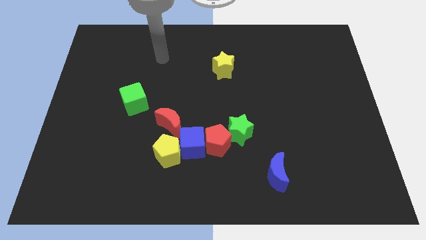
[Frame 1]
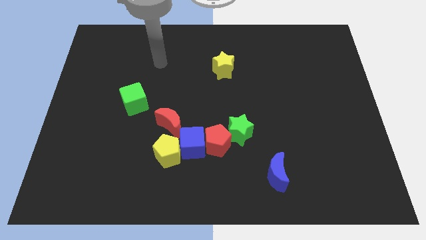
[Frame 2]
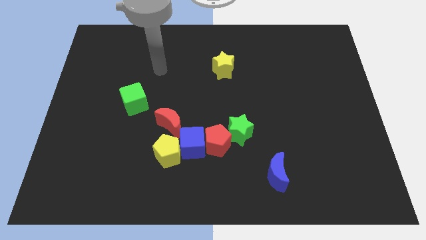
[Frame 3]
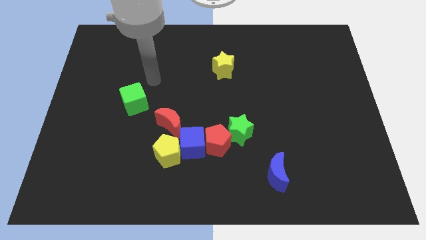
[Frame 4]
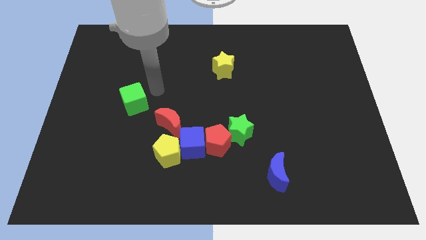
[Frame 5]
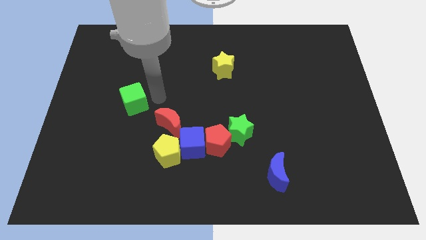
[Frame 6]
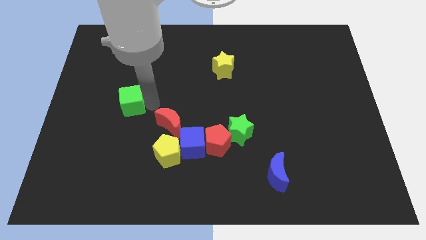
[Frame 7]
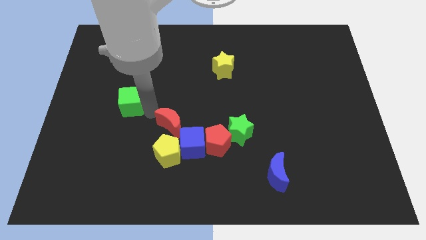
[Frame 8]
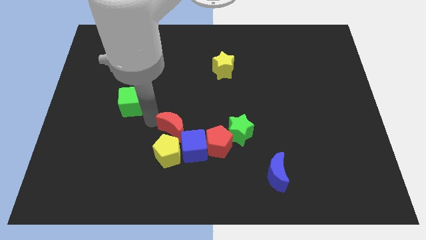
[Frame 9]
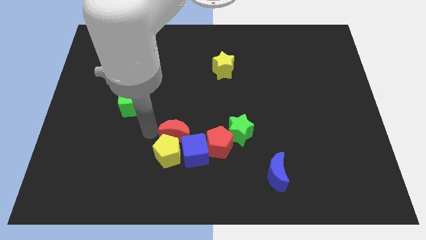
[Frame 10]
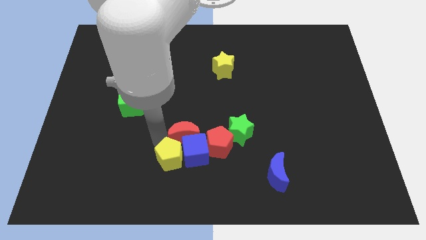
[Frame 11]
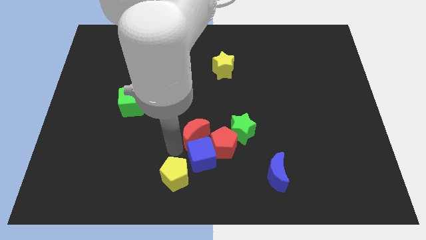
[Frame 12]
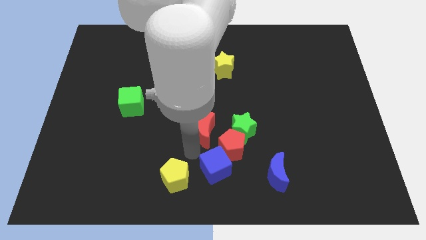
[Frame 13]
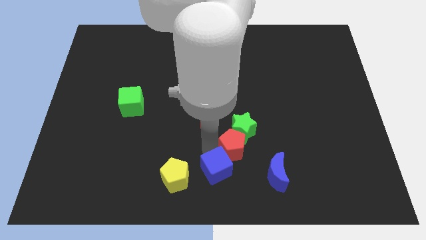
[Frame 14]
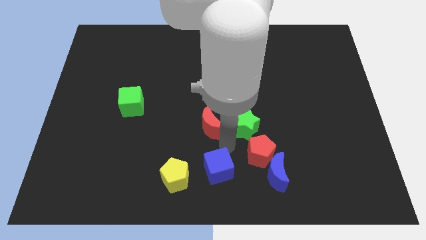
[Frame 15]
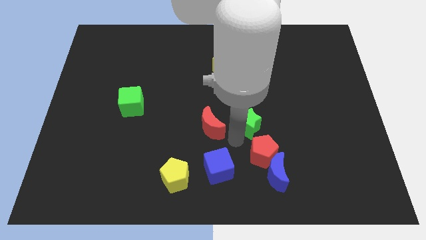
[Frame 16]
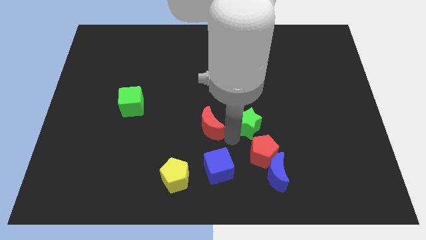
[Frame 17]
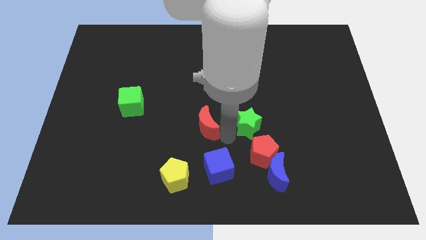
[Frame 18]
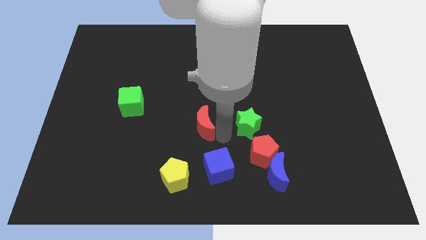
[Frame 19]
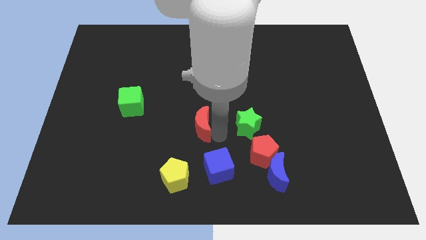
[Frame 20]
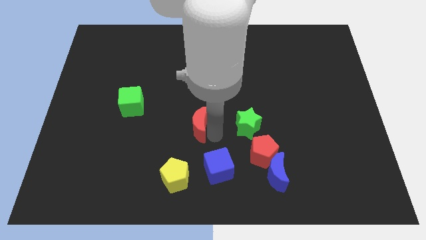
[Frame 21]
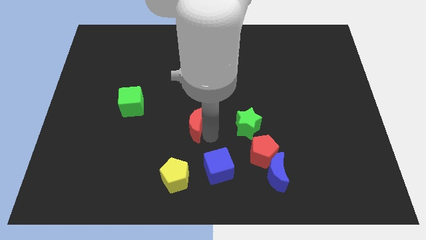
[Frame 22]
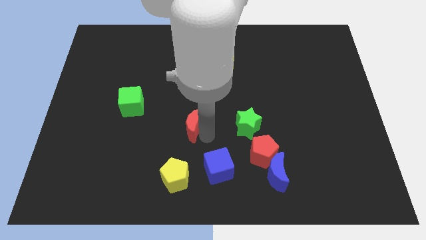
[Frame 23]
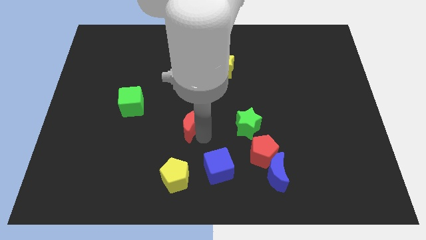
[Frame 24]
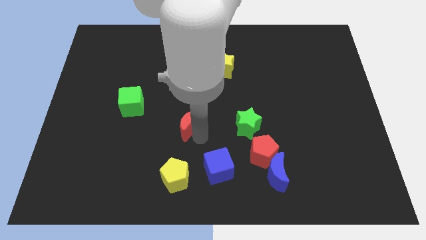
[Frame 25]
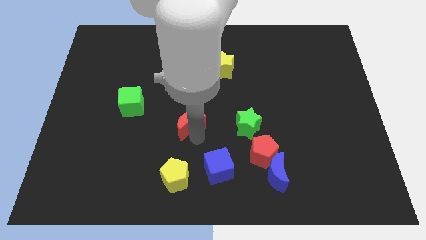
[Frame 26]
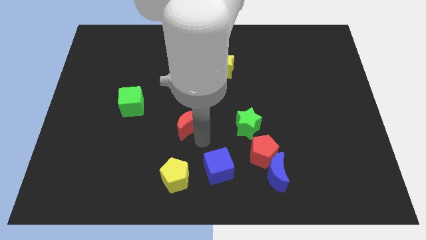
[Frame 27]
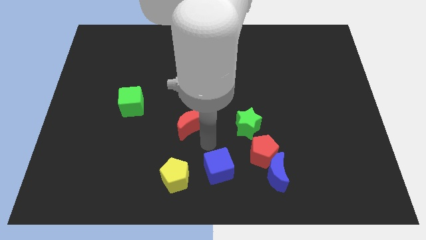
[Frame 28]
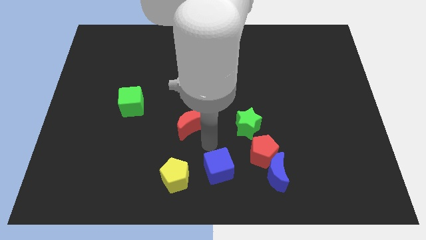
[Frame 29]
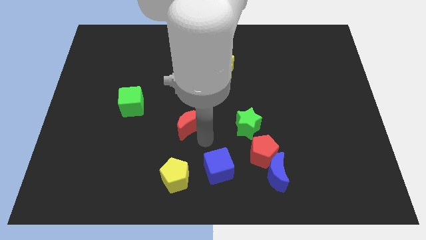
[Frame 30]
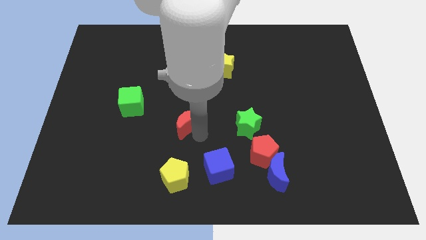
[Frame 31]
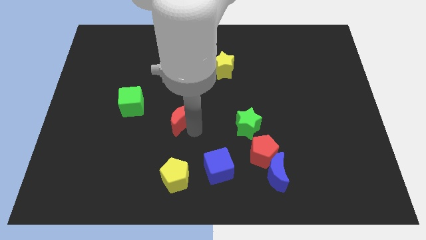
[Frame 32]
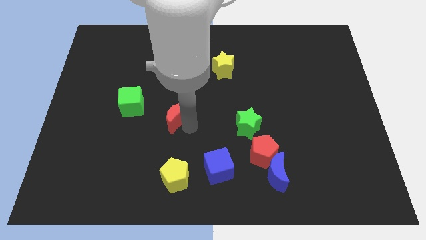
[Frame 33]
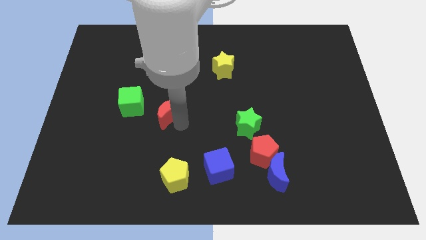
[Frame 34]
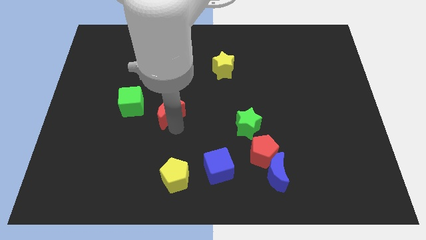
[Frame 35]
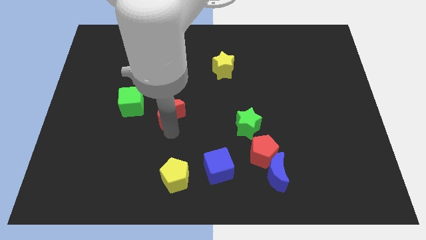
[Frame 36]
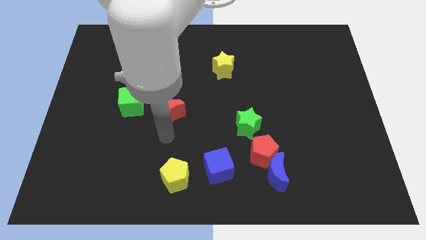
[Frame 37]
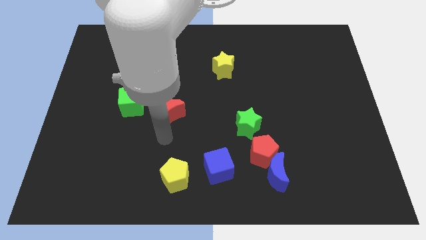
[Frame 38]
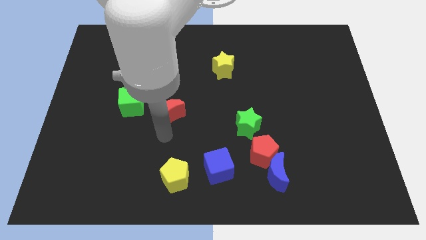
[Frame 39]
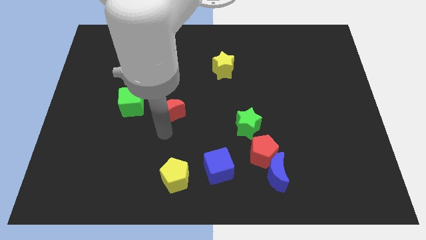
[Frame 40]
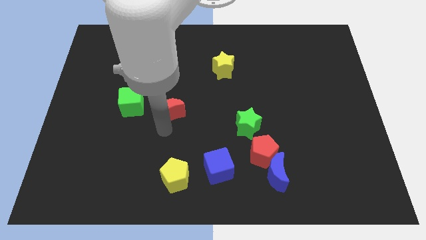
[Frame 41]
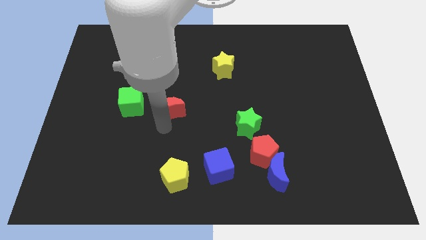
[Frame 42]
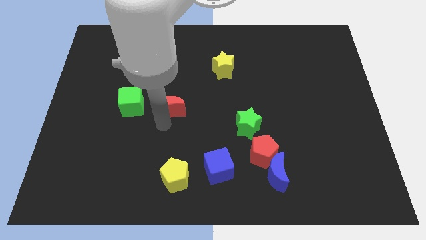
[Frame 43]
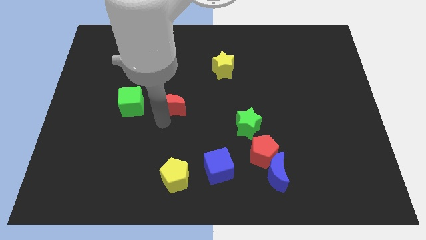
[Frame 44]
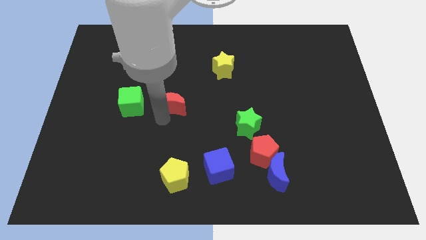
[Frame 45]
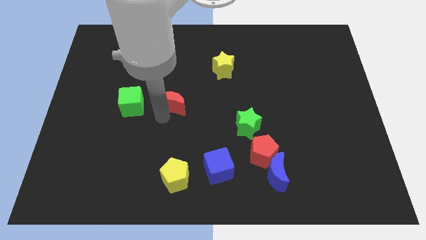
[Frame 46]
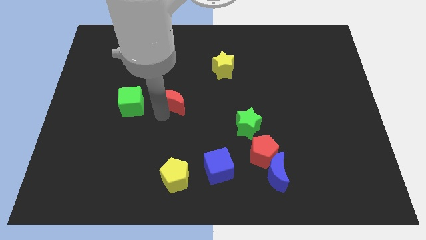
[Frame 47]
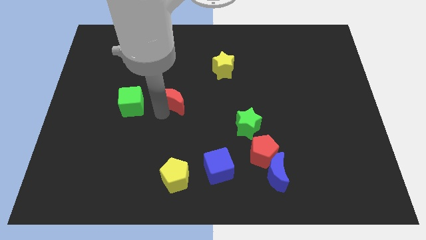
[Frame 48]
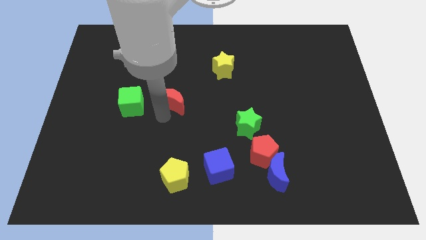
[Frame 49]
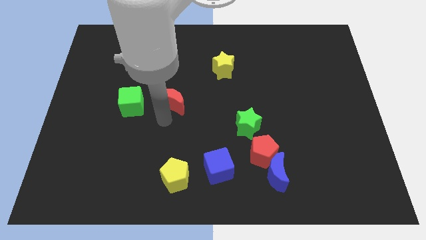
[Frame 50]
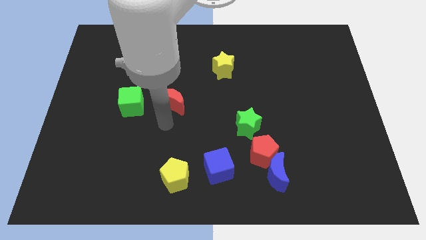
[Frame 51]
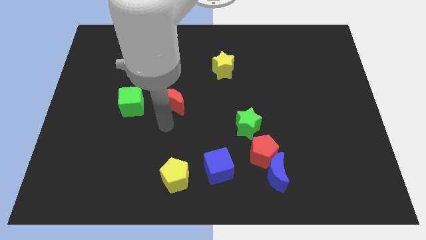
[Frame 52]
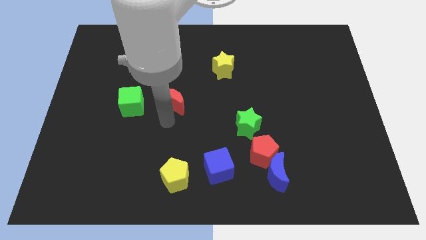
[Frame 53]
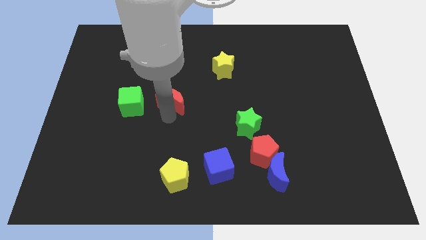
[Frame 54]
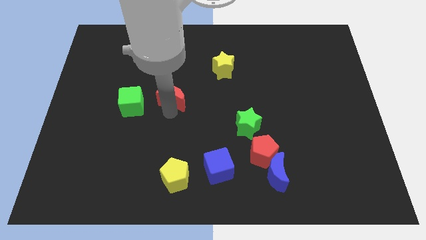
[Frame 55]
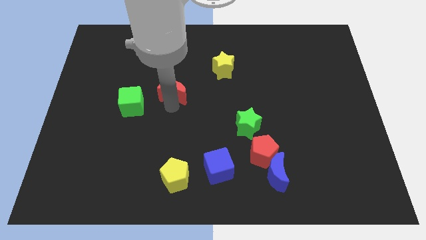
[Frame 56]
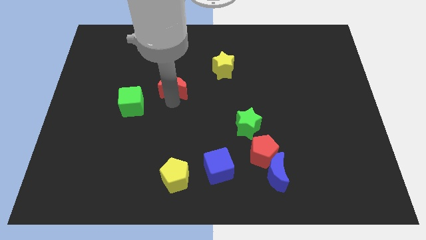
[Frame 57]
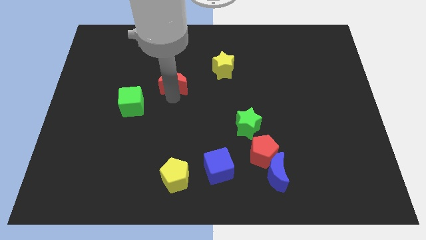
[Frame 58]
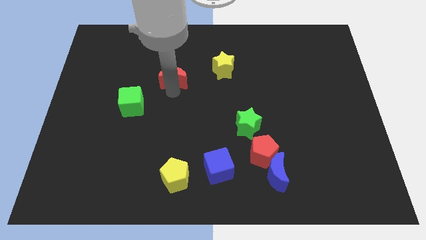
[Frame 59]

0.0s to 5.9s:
slide the red moon to the left side of the yellow star

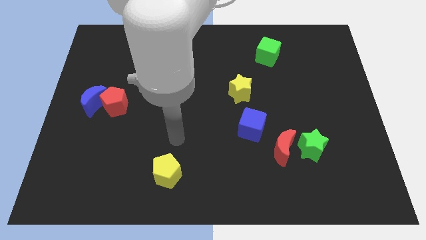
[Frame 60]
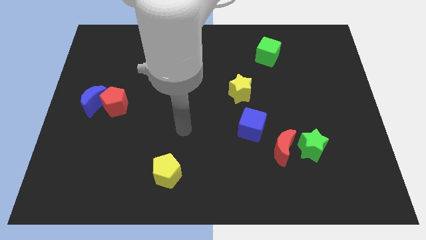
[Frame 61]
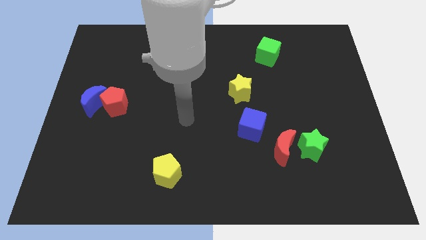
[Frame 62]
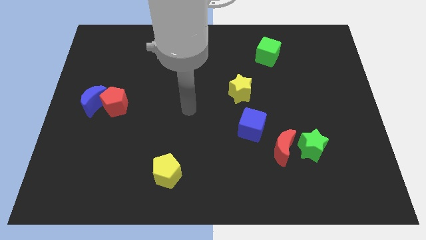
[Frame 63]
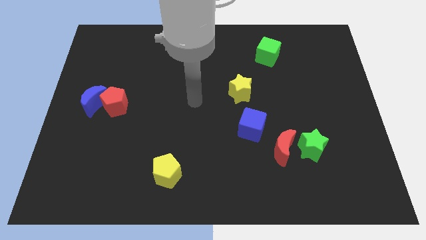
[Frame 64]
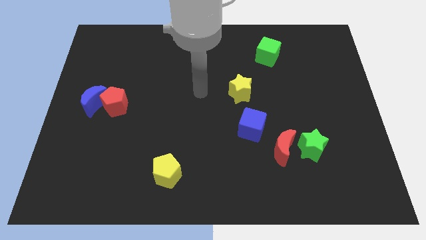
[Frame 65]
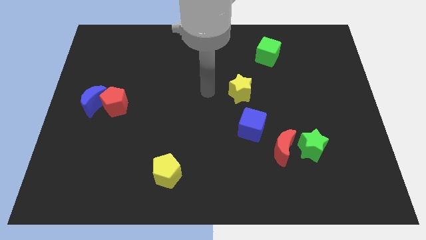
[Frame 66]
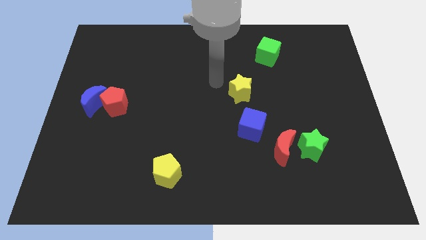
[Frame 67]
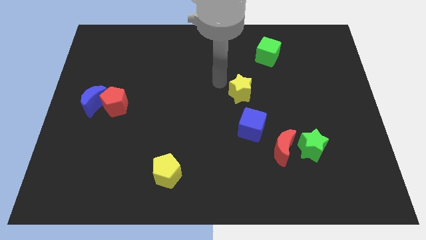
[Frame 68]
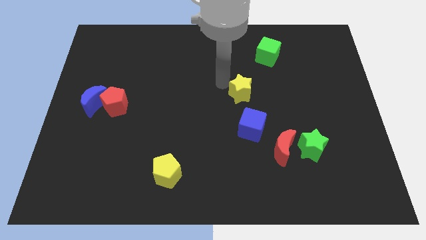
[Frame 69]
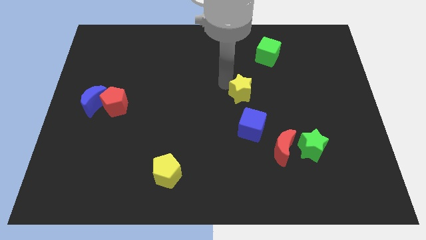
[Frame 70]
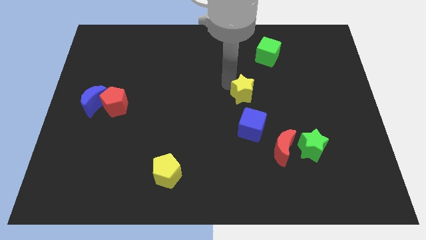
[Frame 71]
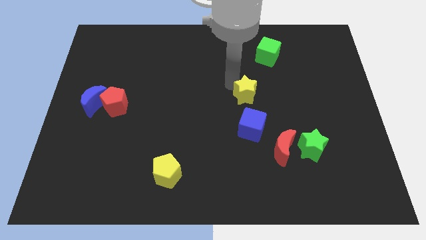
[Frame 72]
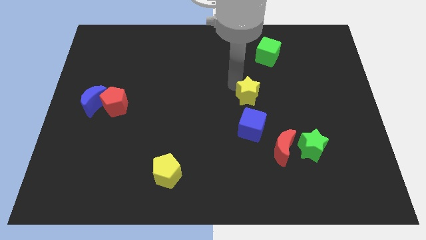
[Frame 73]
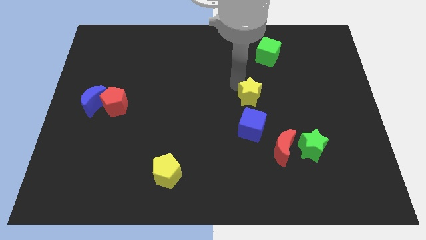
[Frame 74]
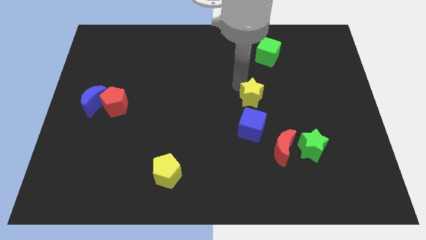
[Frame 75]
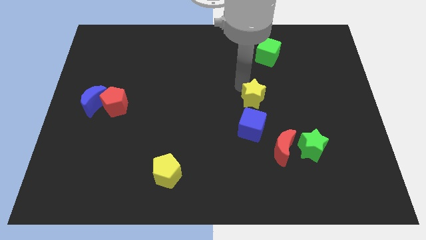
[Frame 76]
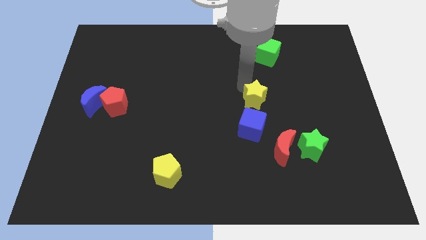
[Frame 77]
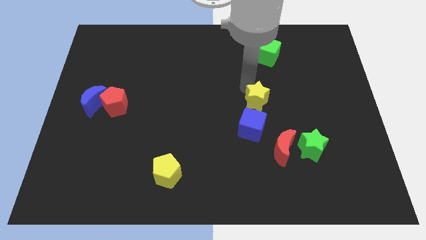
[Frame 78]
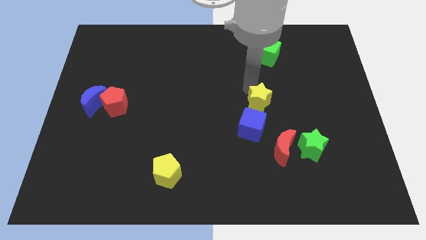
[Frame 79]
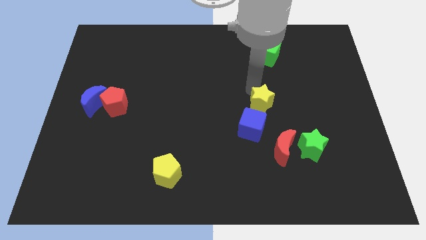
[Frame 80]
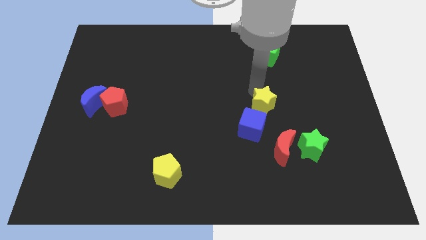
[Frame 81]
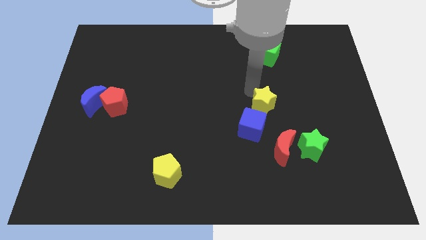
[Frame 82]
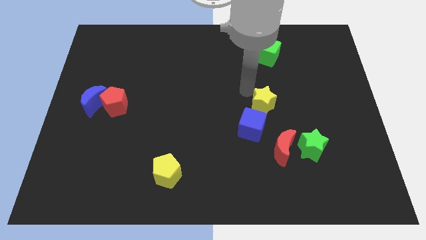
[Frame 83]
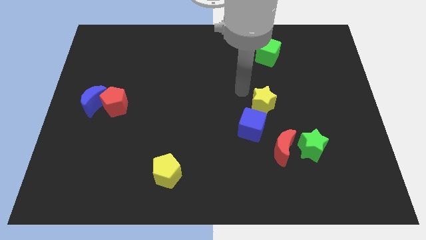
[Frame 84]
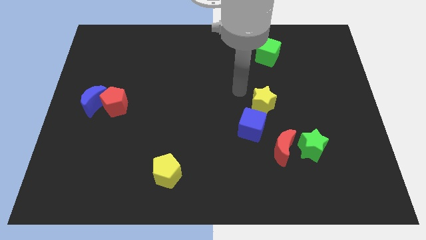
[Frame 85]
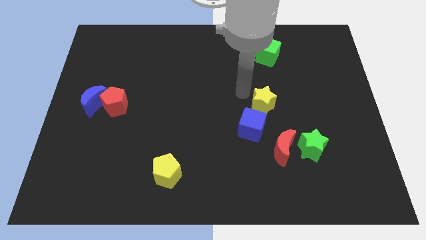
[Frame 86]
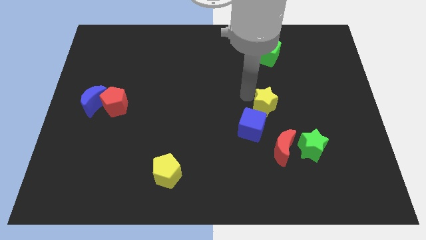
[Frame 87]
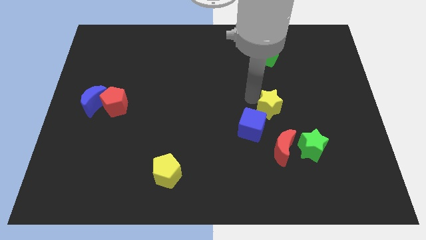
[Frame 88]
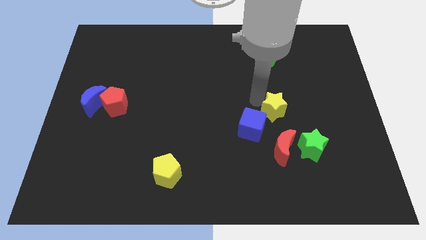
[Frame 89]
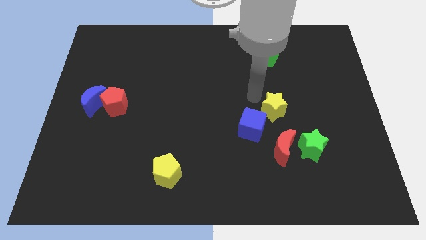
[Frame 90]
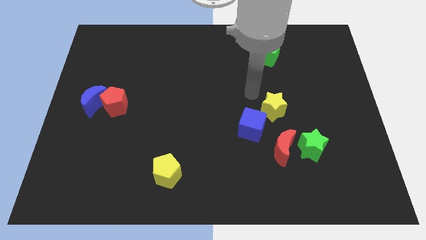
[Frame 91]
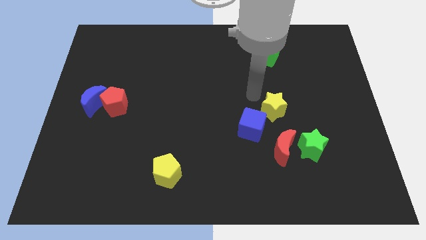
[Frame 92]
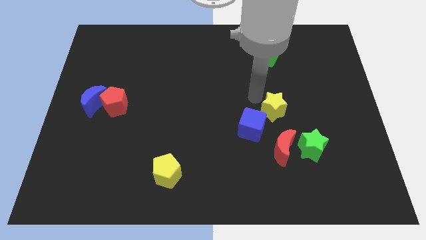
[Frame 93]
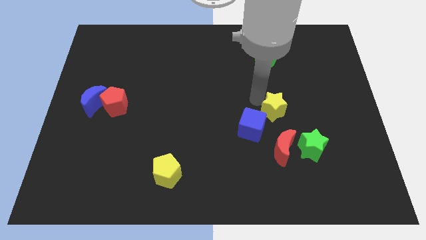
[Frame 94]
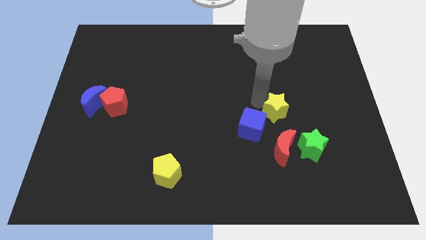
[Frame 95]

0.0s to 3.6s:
push the yellow star to the right side of the blue cube
